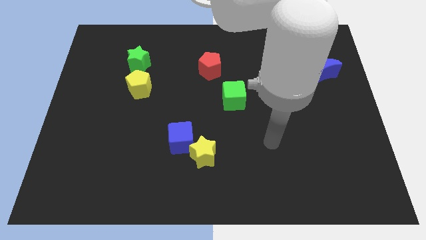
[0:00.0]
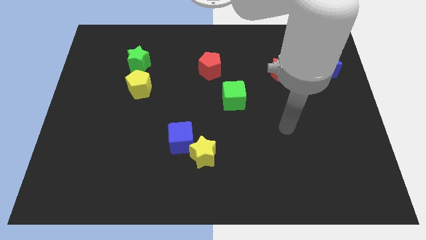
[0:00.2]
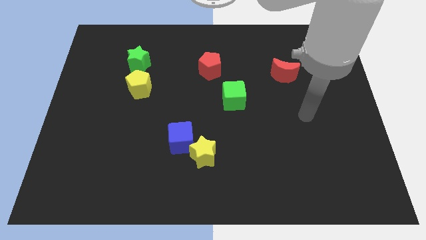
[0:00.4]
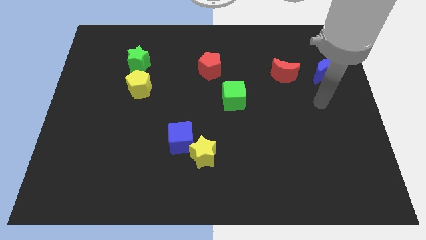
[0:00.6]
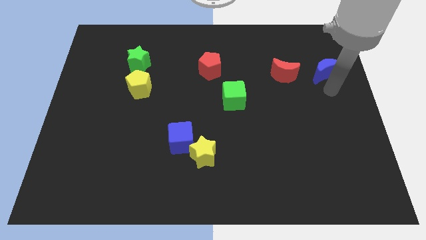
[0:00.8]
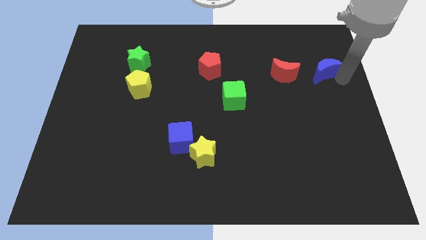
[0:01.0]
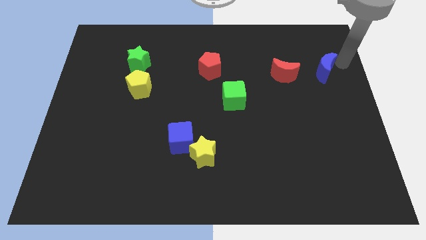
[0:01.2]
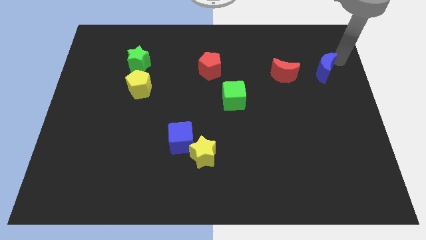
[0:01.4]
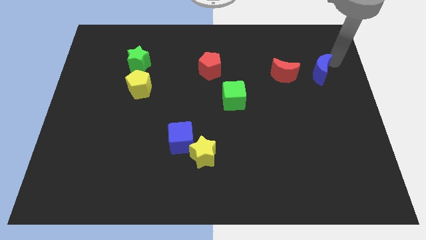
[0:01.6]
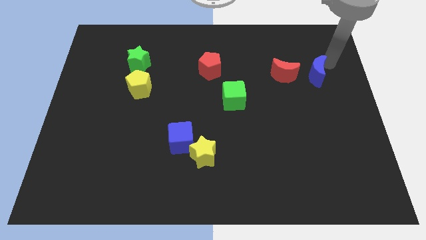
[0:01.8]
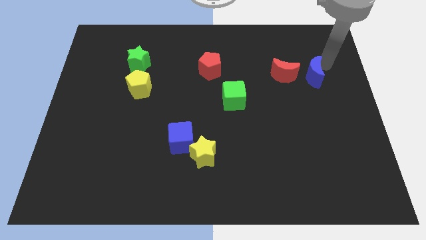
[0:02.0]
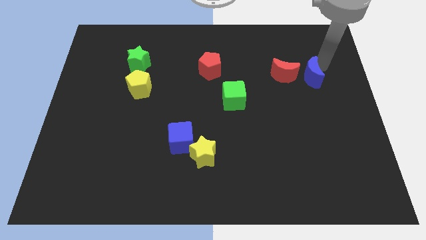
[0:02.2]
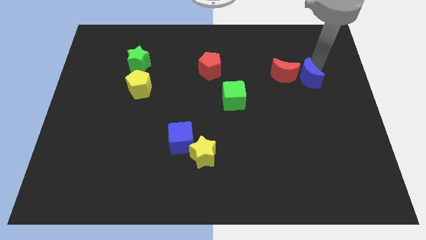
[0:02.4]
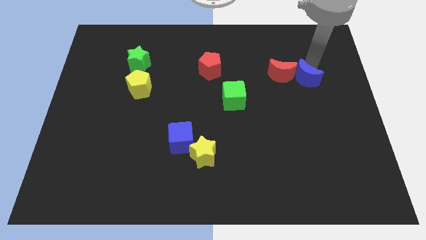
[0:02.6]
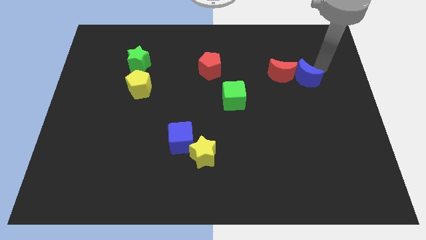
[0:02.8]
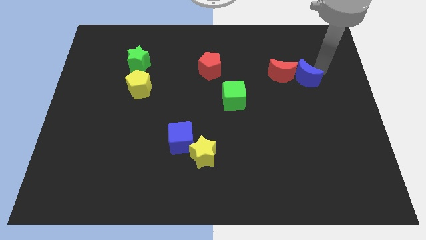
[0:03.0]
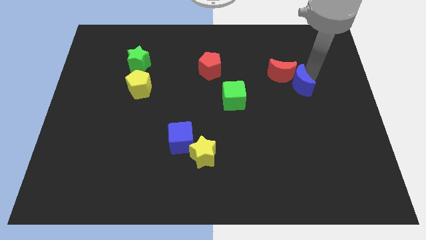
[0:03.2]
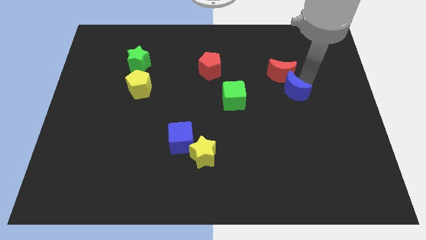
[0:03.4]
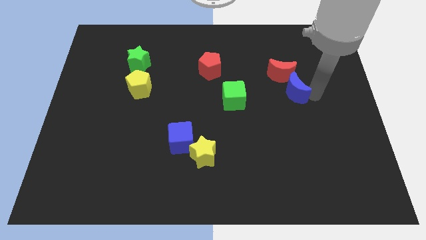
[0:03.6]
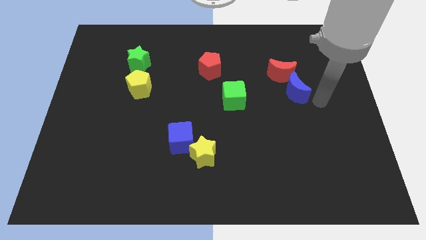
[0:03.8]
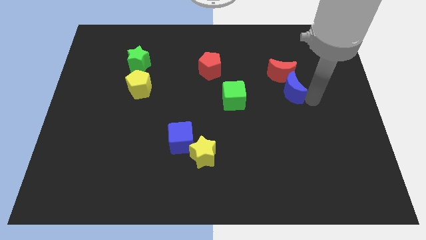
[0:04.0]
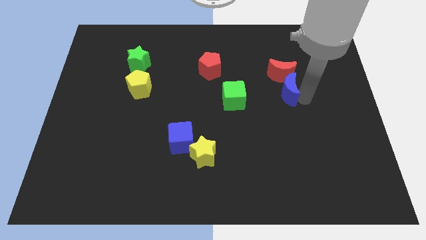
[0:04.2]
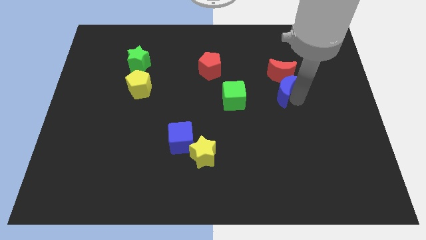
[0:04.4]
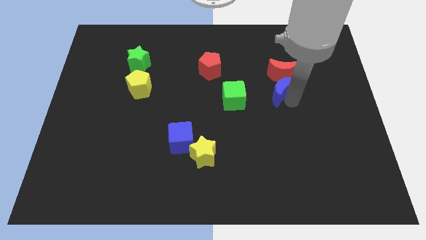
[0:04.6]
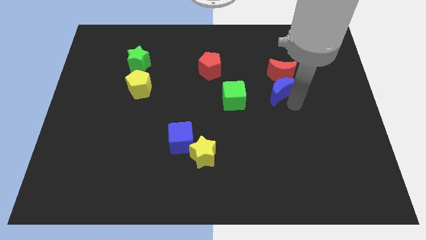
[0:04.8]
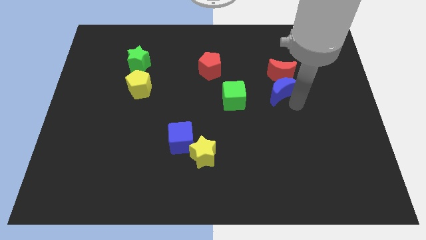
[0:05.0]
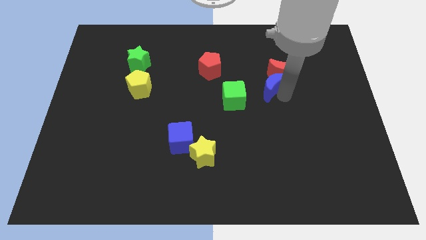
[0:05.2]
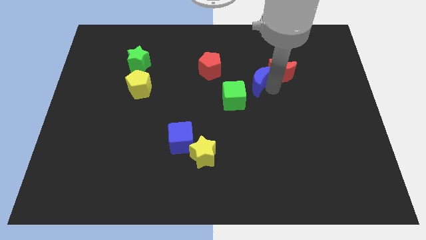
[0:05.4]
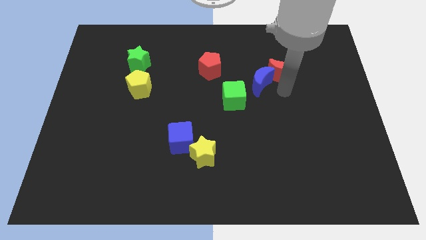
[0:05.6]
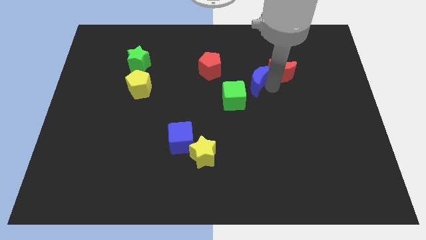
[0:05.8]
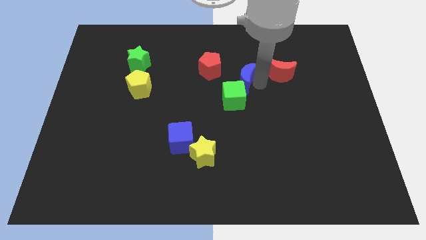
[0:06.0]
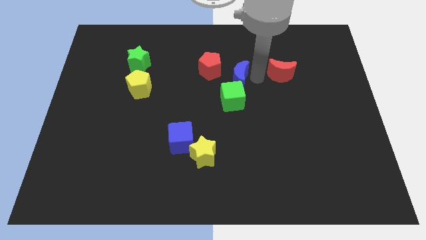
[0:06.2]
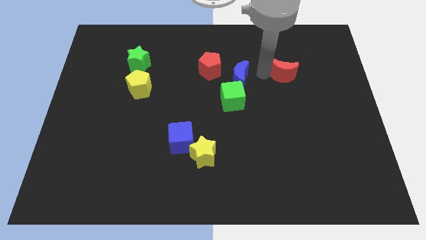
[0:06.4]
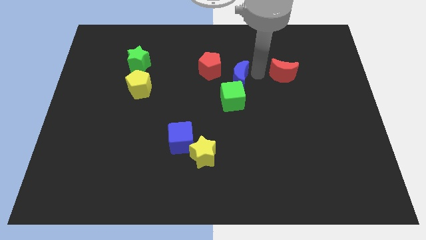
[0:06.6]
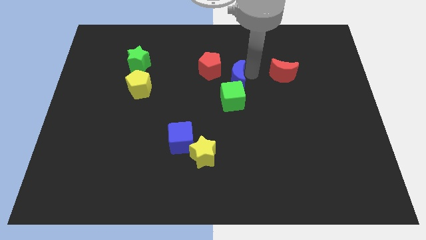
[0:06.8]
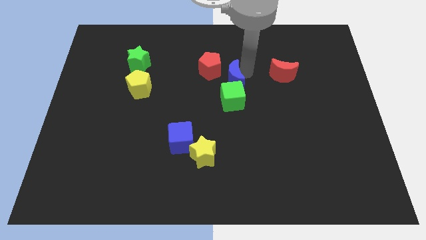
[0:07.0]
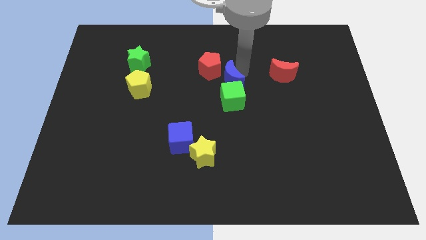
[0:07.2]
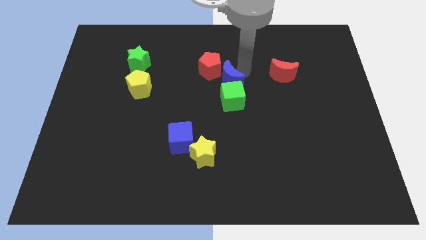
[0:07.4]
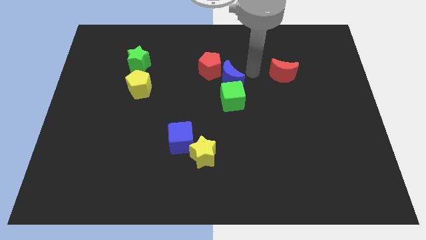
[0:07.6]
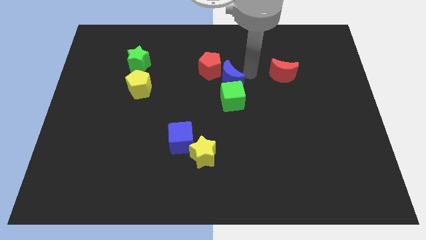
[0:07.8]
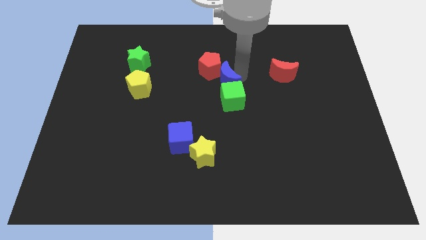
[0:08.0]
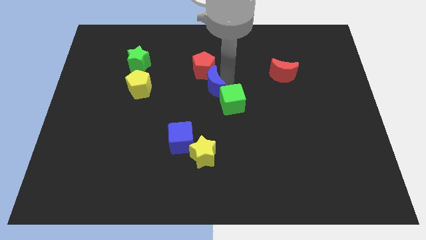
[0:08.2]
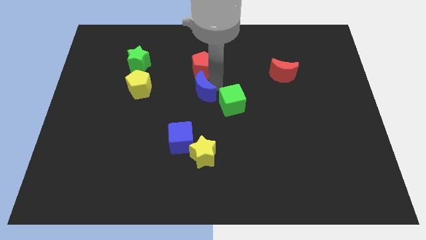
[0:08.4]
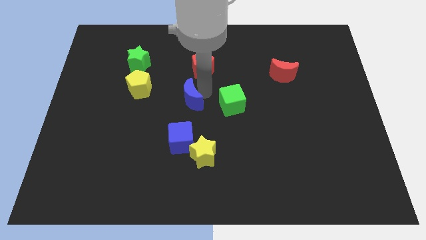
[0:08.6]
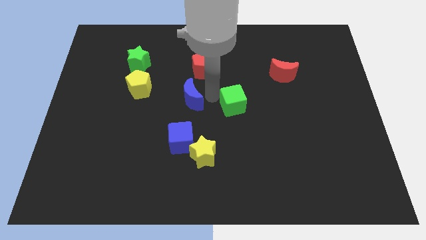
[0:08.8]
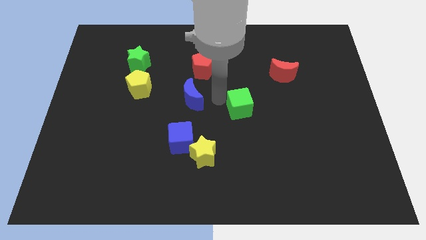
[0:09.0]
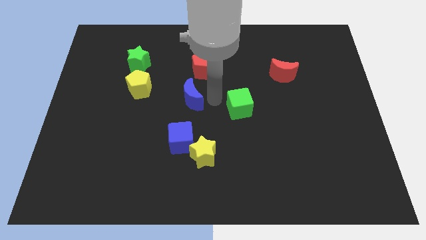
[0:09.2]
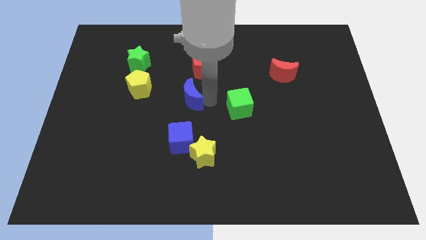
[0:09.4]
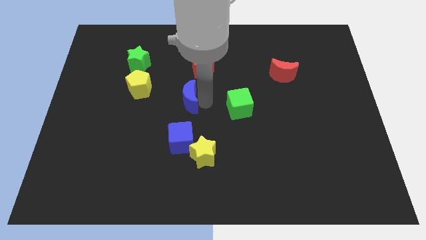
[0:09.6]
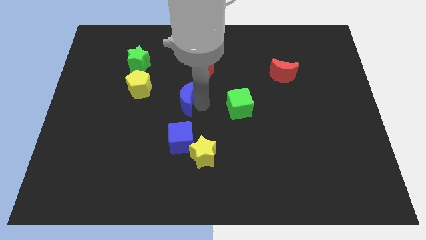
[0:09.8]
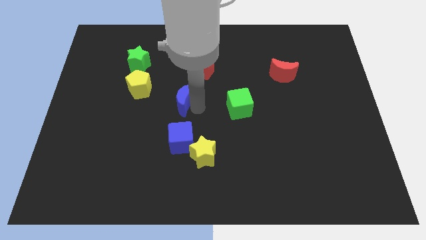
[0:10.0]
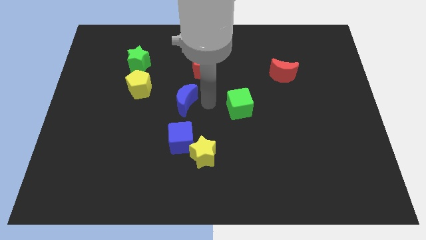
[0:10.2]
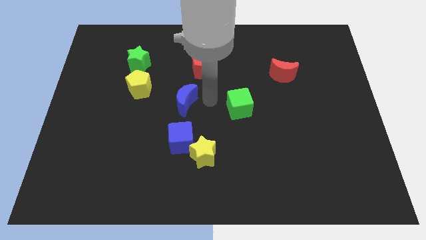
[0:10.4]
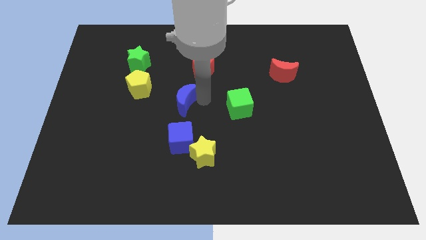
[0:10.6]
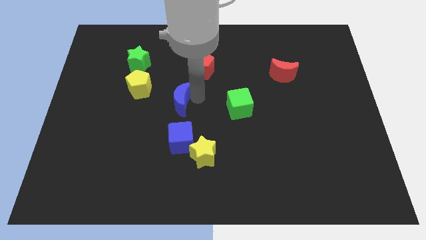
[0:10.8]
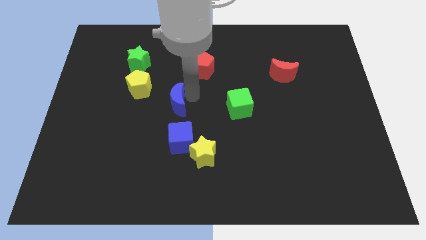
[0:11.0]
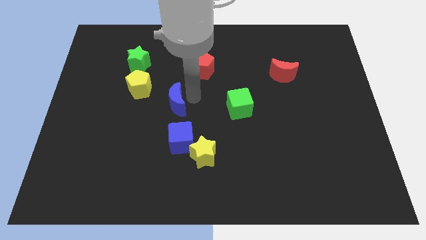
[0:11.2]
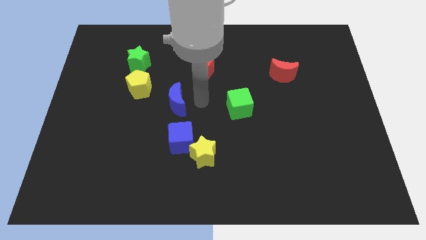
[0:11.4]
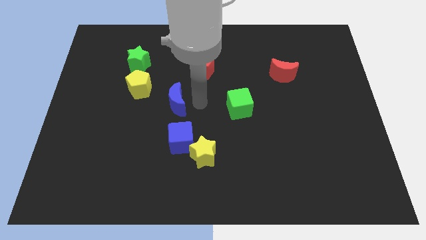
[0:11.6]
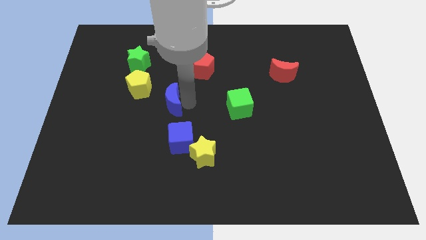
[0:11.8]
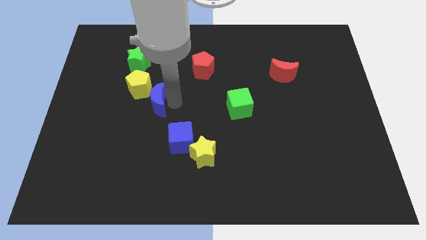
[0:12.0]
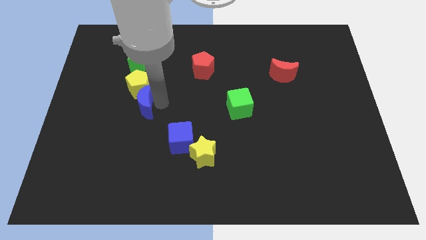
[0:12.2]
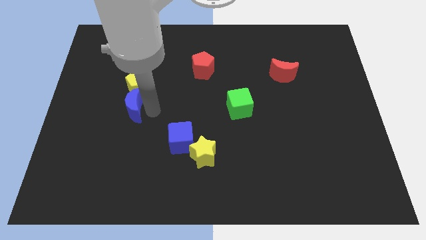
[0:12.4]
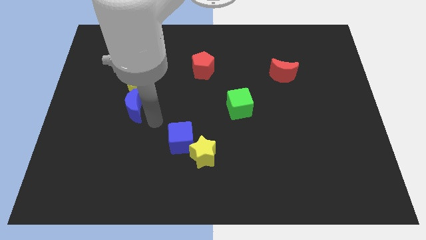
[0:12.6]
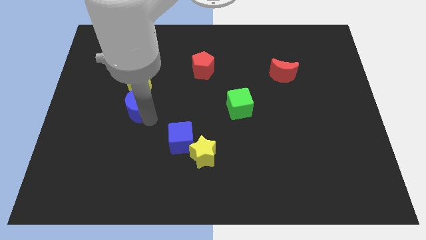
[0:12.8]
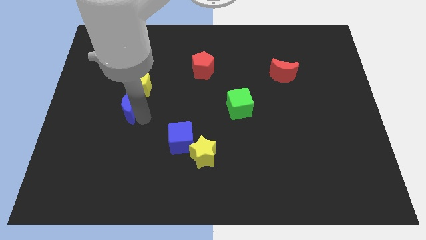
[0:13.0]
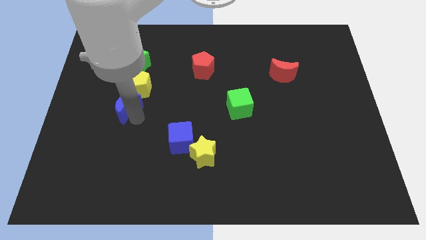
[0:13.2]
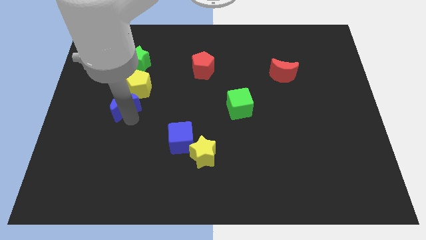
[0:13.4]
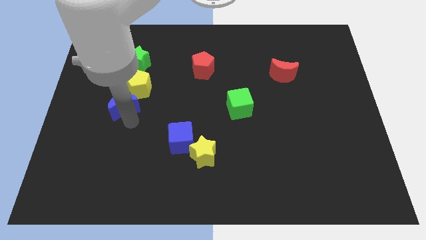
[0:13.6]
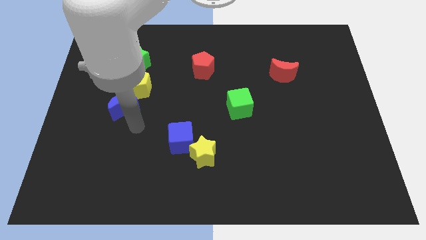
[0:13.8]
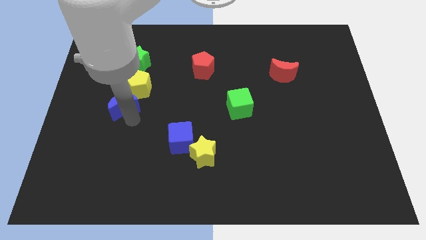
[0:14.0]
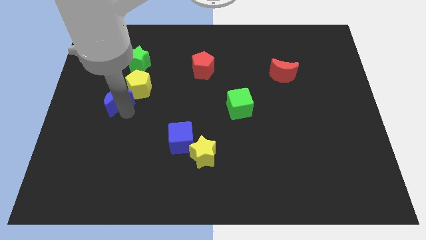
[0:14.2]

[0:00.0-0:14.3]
move the blue moon to the left of the yellow pentagon

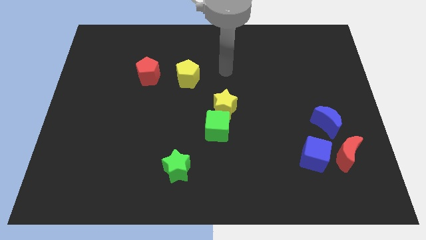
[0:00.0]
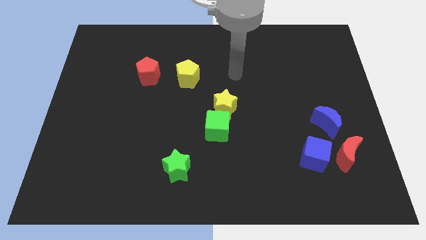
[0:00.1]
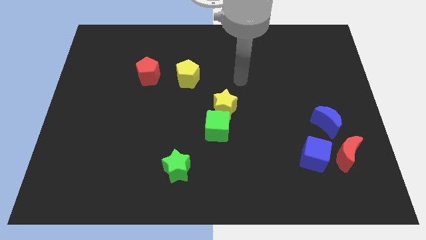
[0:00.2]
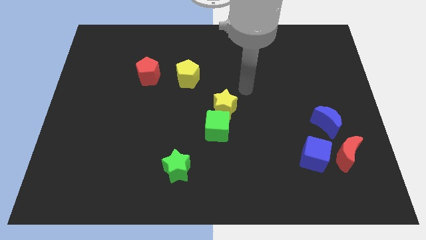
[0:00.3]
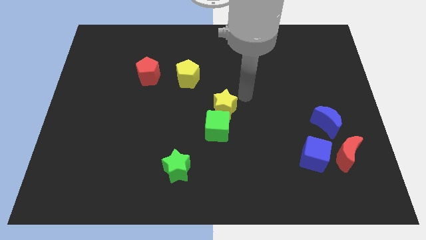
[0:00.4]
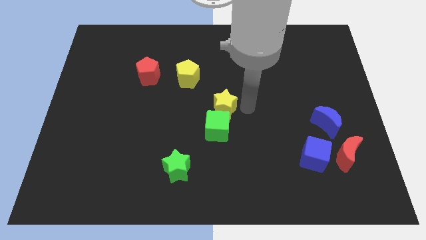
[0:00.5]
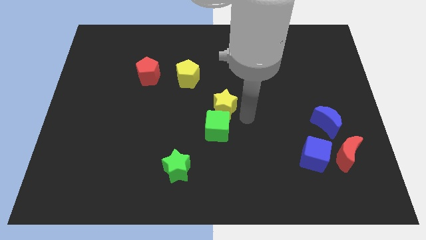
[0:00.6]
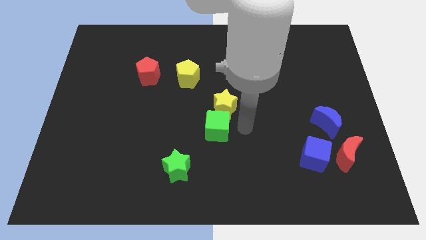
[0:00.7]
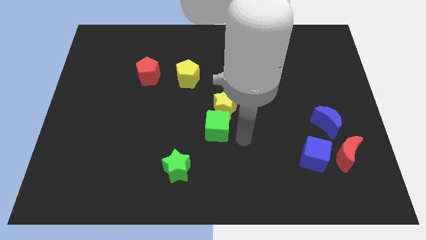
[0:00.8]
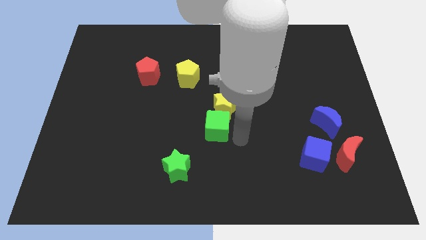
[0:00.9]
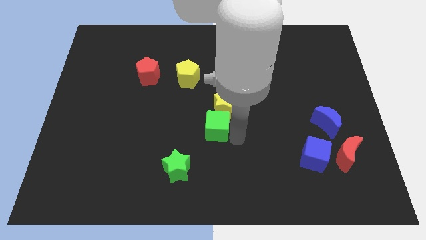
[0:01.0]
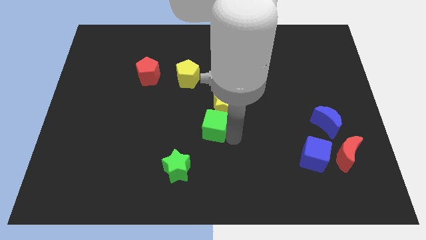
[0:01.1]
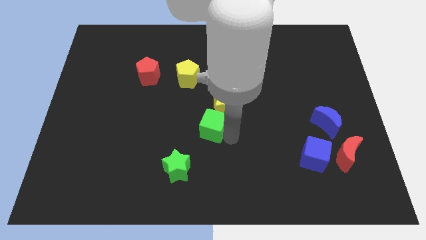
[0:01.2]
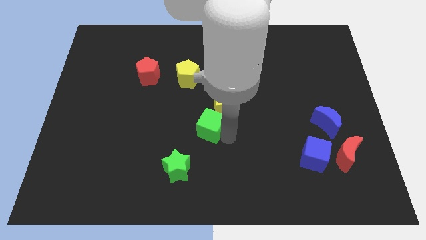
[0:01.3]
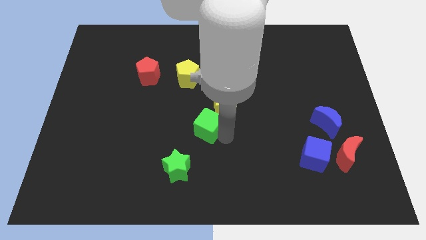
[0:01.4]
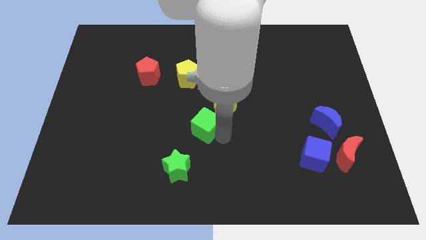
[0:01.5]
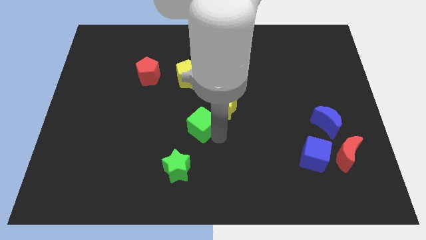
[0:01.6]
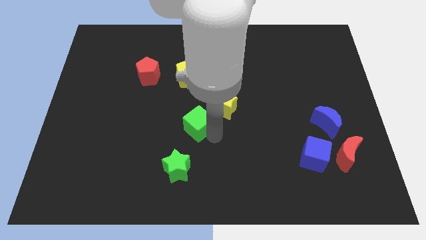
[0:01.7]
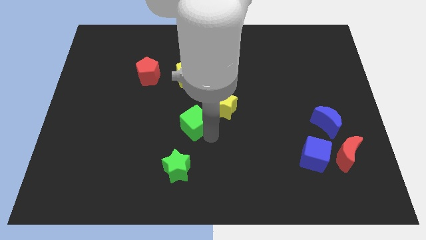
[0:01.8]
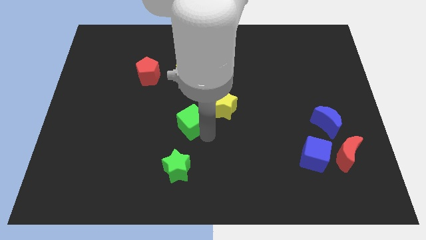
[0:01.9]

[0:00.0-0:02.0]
push the green cube left of the yellow star
